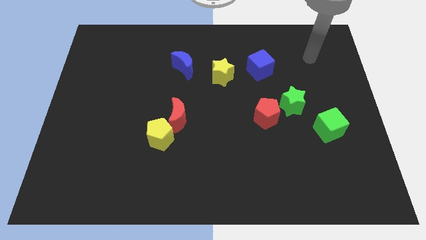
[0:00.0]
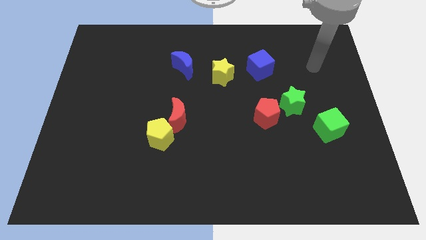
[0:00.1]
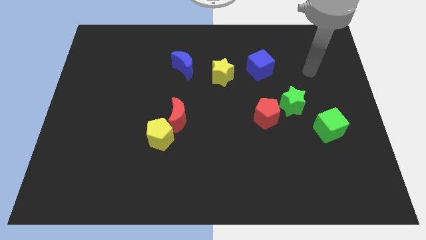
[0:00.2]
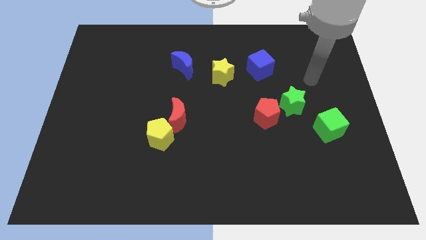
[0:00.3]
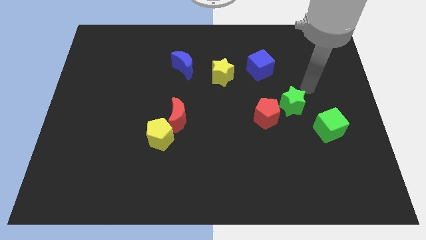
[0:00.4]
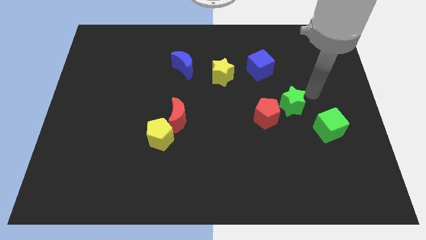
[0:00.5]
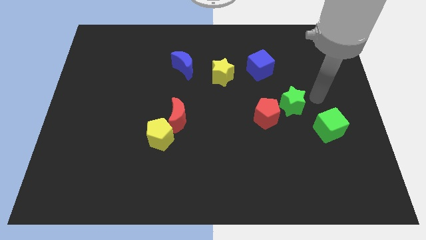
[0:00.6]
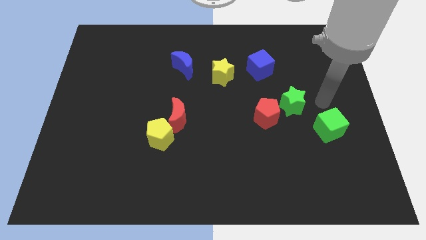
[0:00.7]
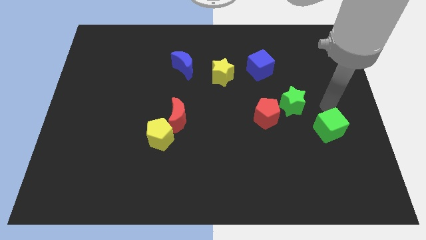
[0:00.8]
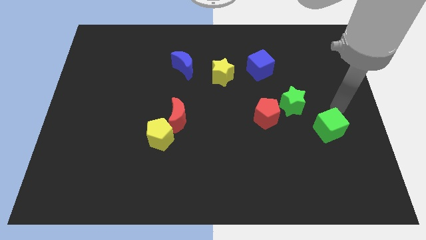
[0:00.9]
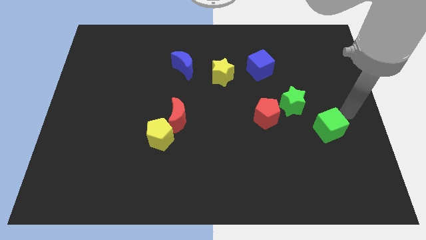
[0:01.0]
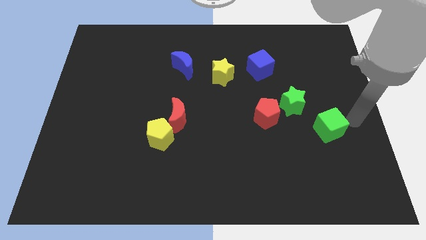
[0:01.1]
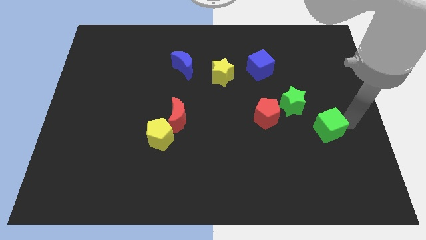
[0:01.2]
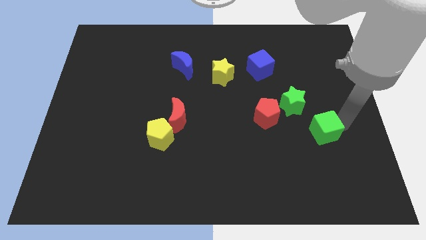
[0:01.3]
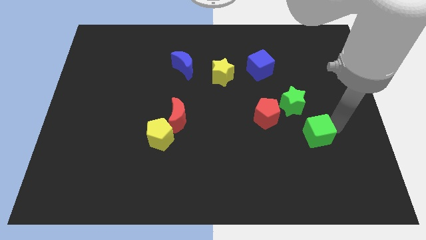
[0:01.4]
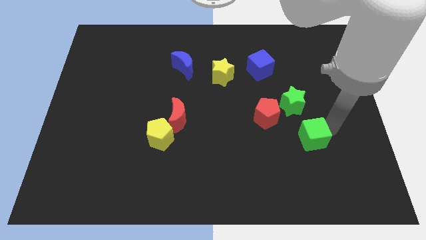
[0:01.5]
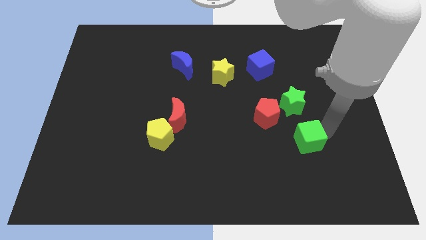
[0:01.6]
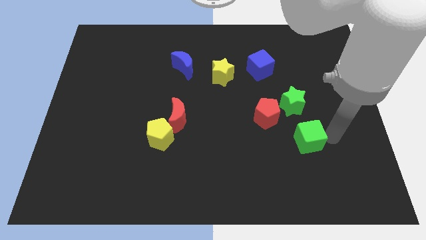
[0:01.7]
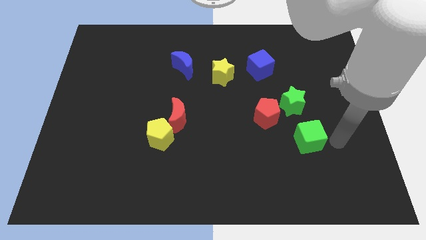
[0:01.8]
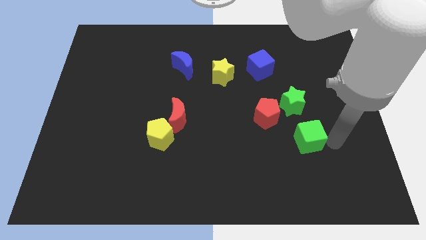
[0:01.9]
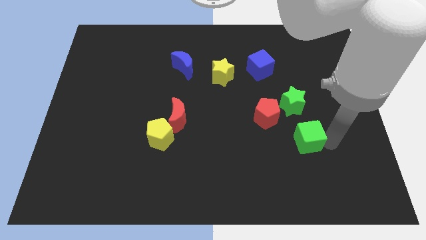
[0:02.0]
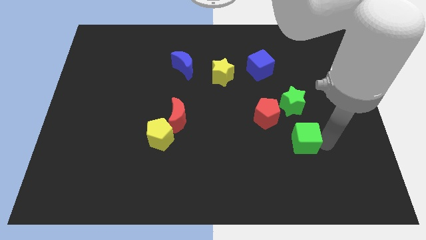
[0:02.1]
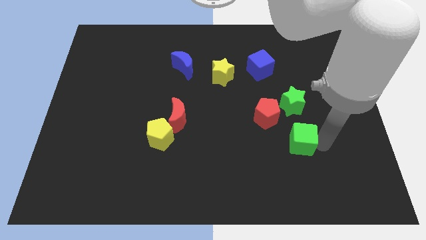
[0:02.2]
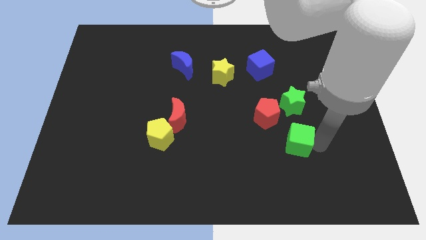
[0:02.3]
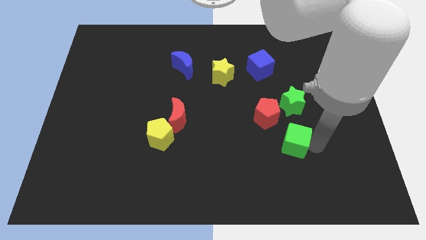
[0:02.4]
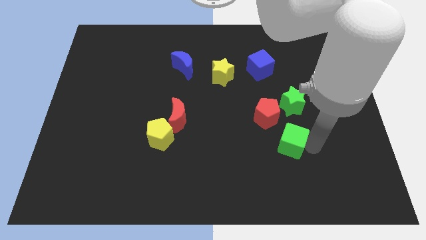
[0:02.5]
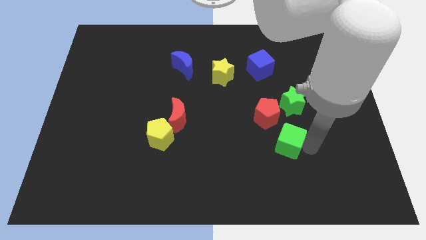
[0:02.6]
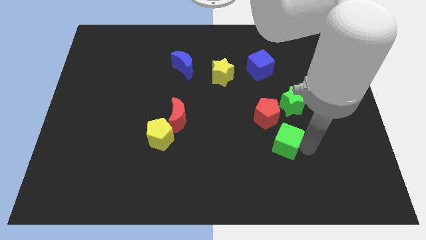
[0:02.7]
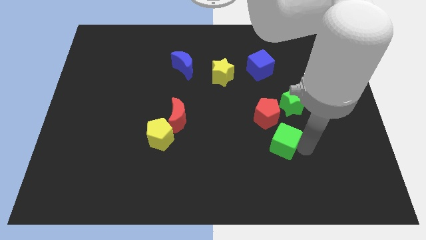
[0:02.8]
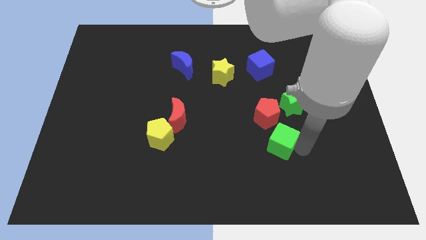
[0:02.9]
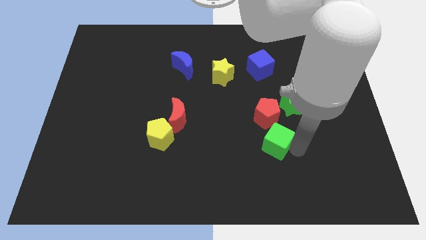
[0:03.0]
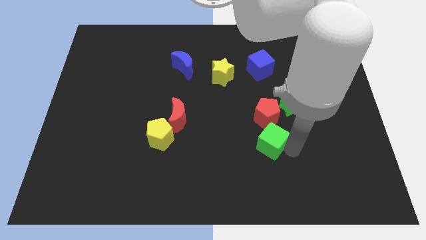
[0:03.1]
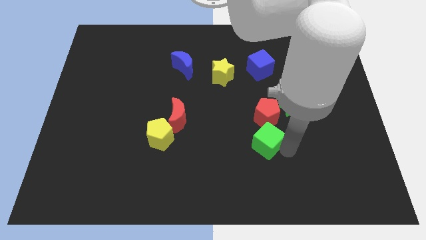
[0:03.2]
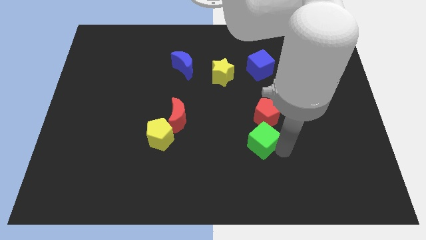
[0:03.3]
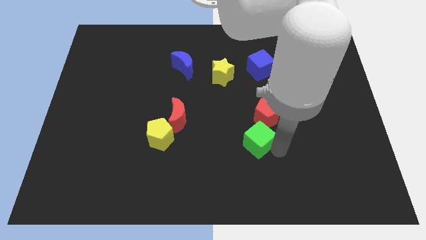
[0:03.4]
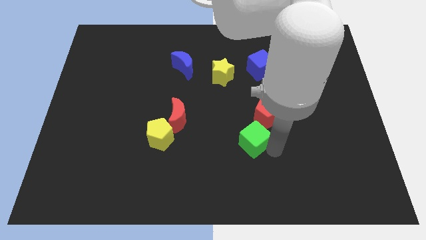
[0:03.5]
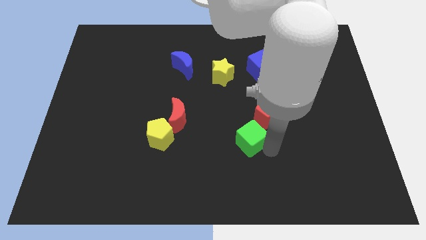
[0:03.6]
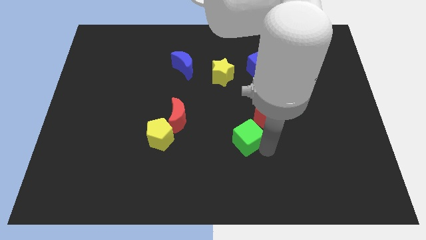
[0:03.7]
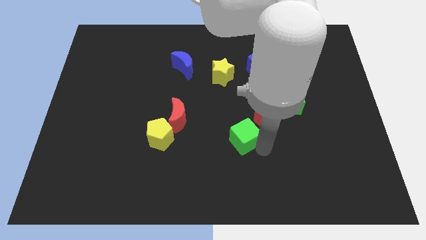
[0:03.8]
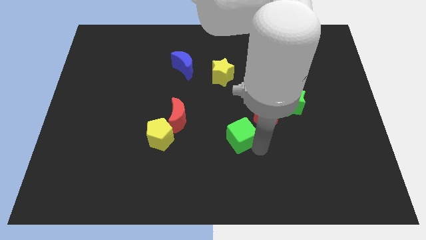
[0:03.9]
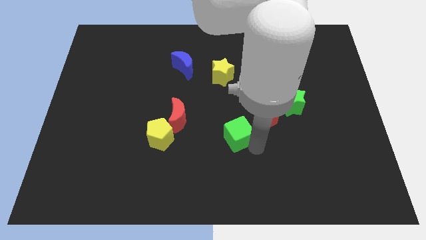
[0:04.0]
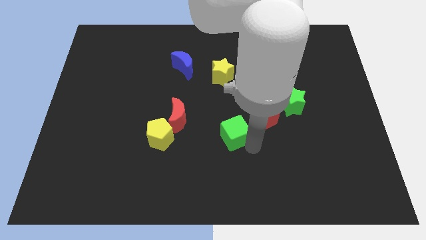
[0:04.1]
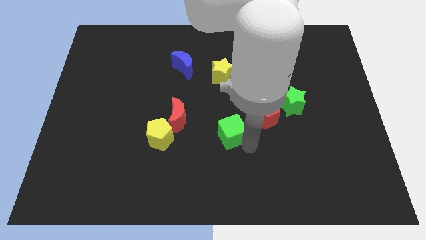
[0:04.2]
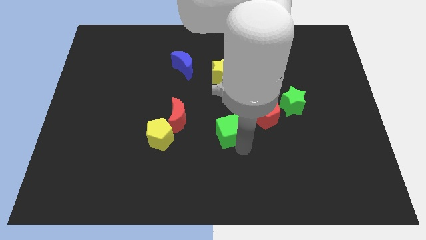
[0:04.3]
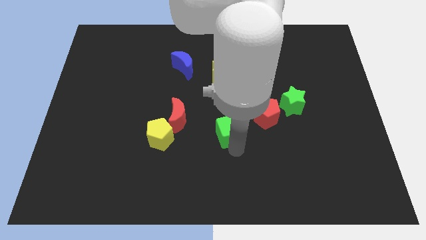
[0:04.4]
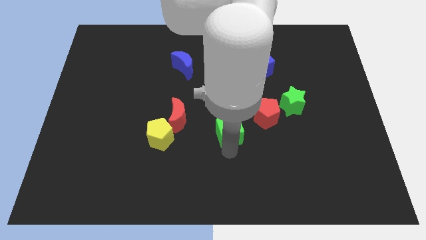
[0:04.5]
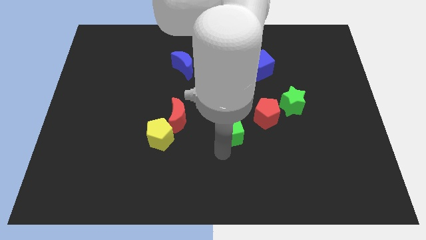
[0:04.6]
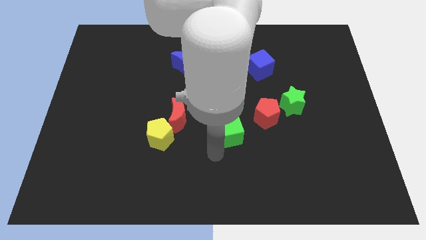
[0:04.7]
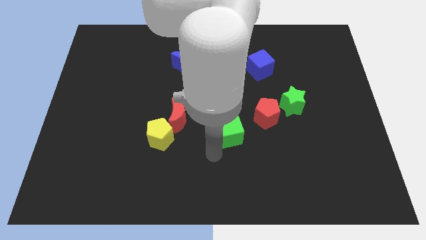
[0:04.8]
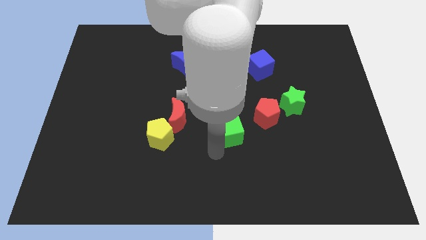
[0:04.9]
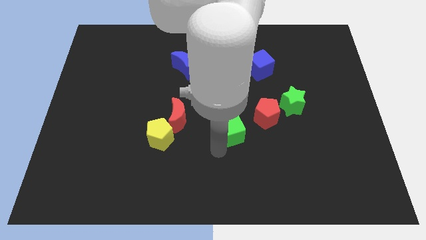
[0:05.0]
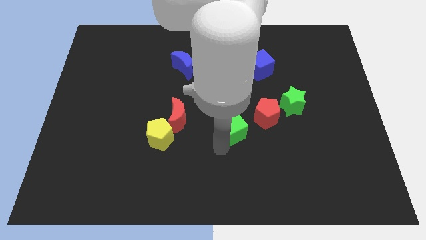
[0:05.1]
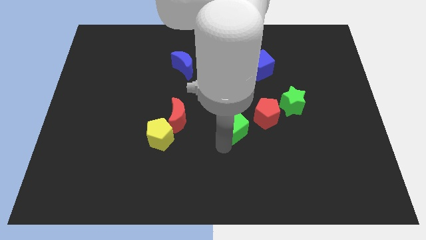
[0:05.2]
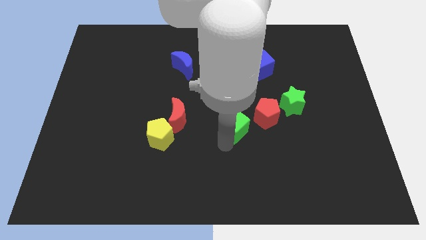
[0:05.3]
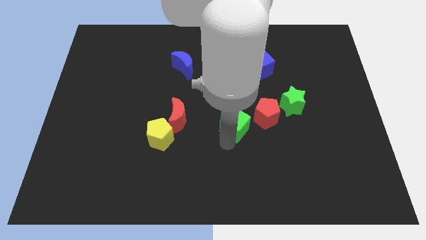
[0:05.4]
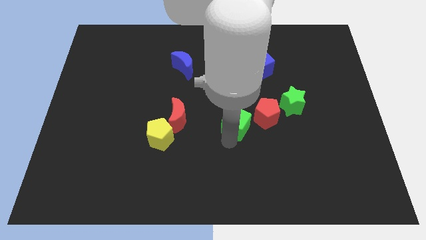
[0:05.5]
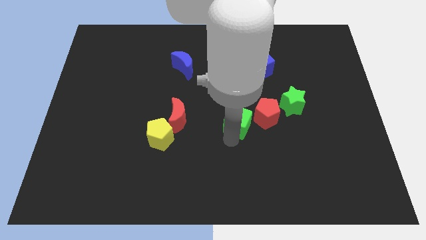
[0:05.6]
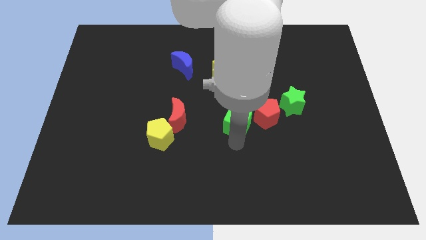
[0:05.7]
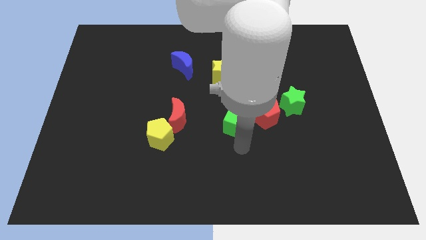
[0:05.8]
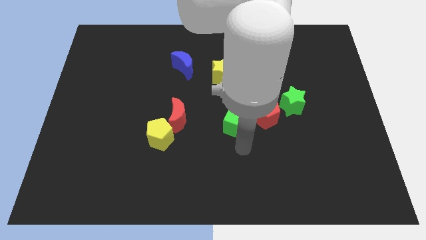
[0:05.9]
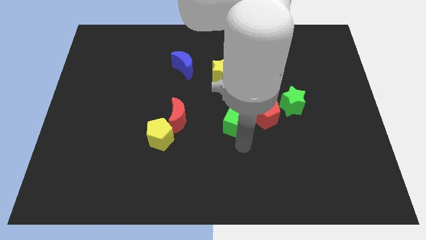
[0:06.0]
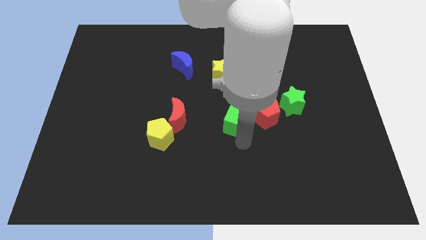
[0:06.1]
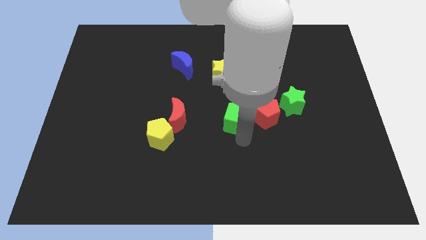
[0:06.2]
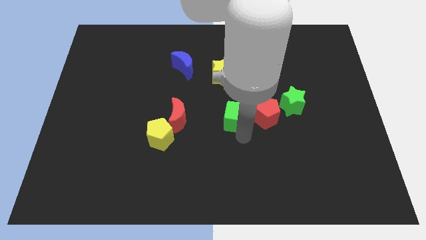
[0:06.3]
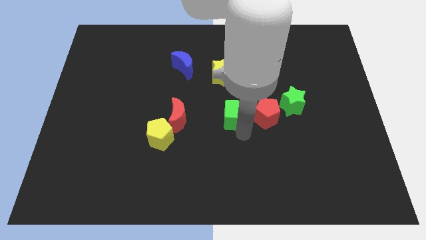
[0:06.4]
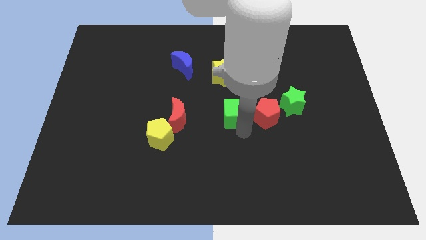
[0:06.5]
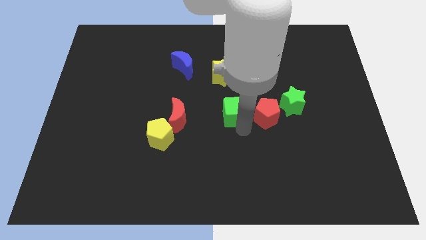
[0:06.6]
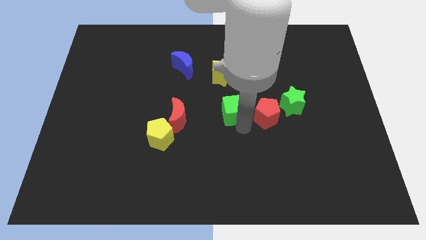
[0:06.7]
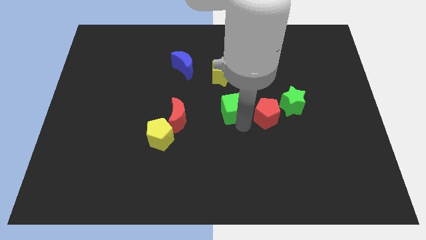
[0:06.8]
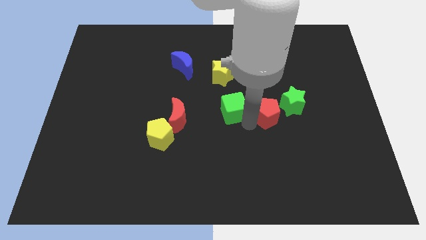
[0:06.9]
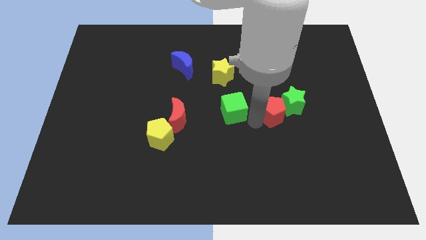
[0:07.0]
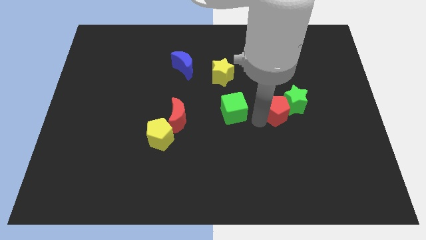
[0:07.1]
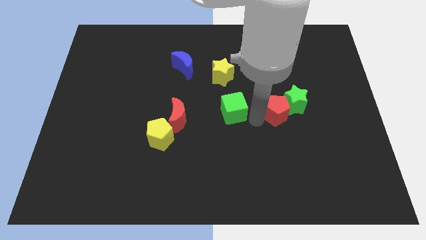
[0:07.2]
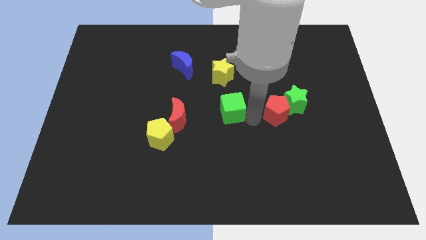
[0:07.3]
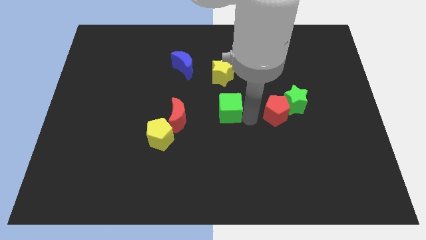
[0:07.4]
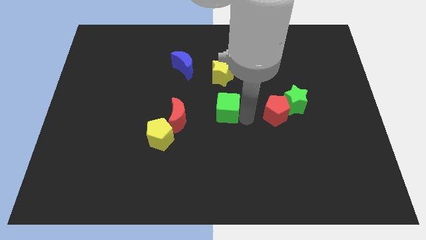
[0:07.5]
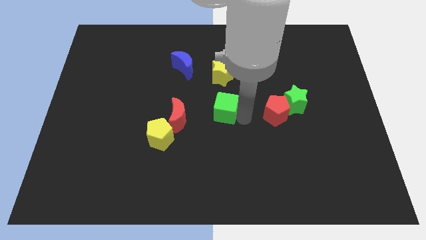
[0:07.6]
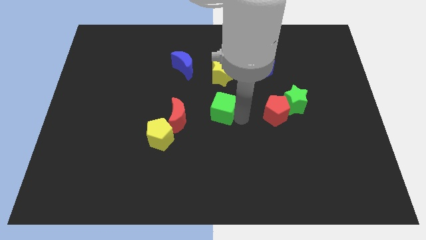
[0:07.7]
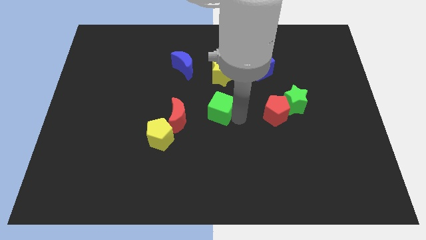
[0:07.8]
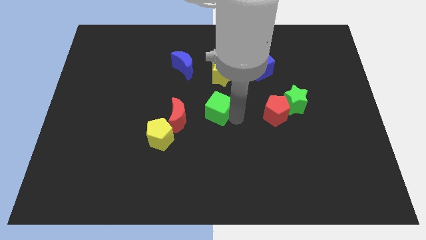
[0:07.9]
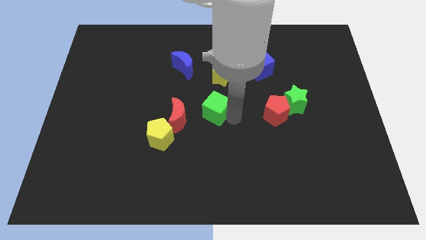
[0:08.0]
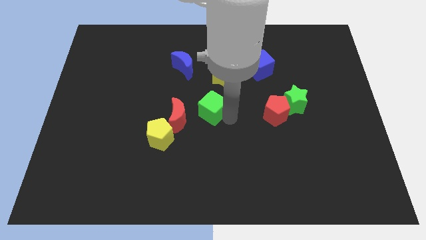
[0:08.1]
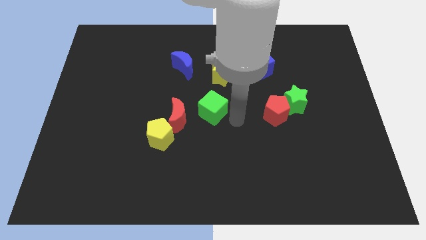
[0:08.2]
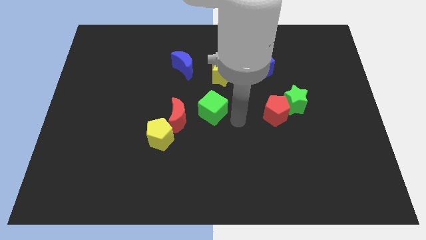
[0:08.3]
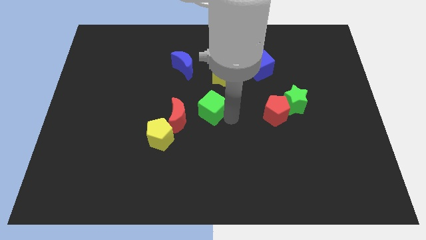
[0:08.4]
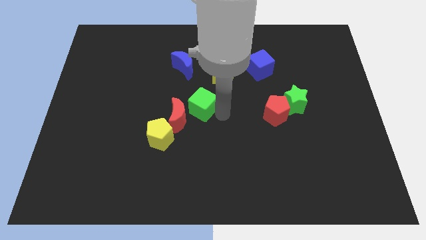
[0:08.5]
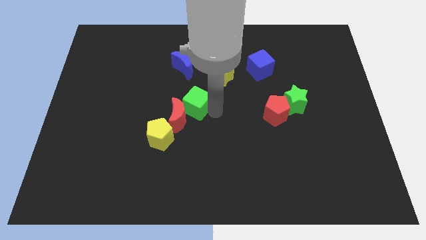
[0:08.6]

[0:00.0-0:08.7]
slide the green cube to the bottom side of the blue moon
